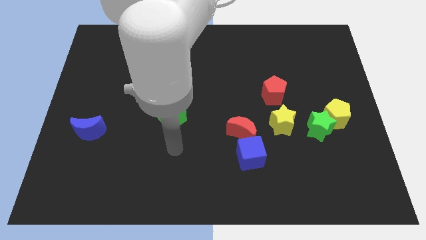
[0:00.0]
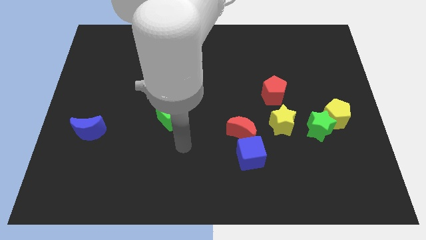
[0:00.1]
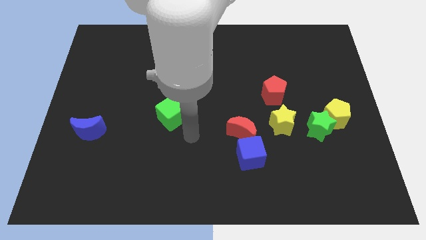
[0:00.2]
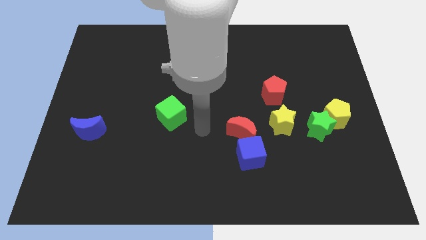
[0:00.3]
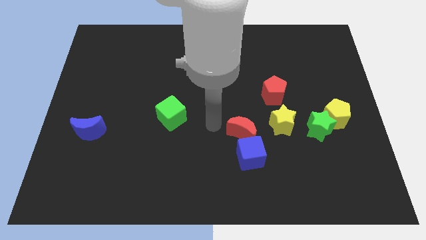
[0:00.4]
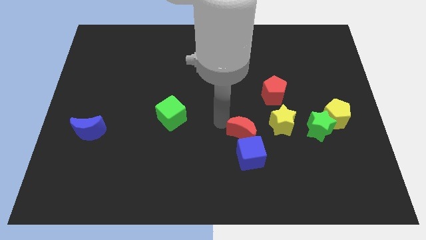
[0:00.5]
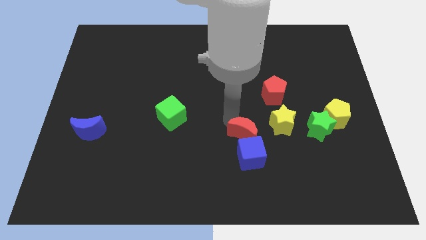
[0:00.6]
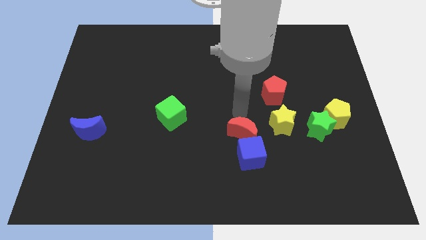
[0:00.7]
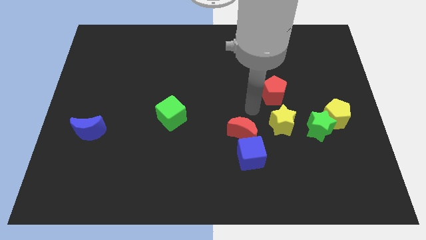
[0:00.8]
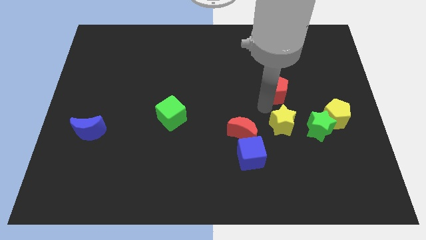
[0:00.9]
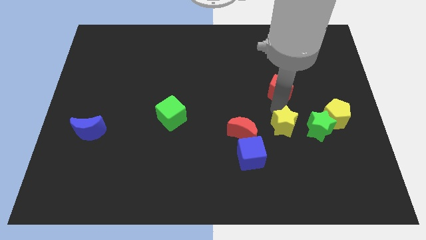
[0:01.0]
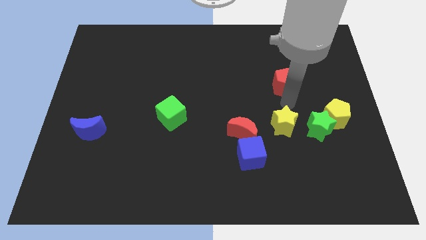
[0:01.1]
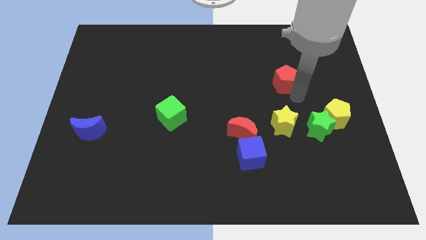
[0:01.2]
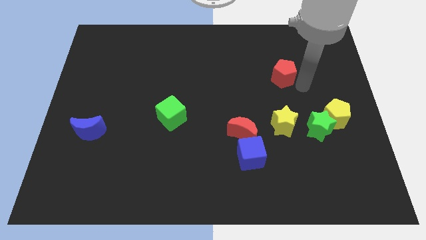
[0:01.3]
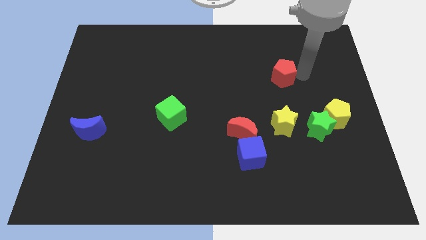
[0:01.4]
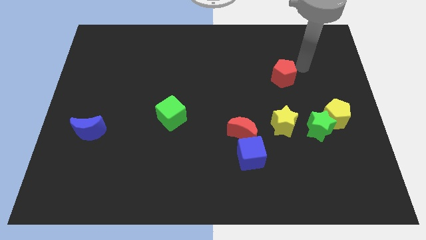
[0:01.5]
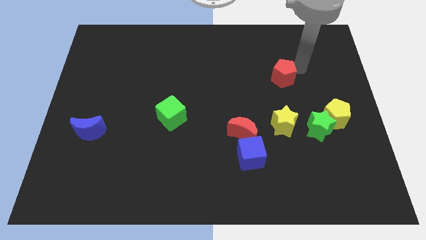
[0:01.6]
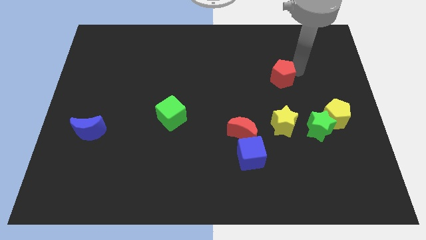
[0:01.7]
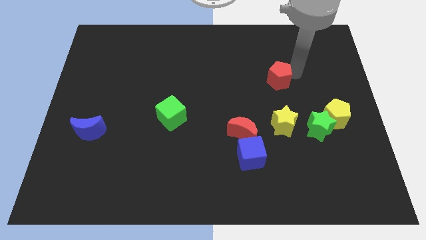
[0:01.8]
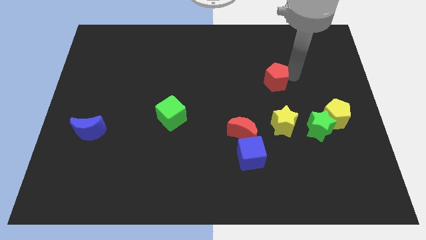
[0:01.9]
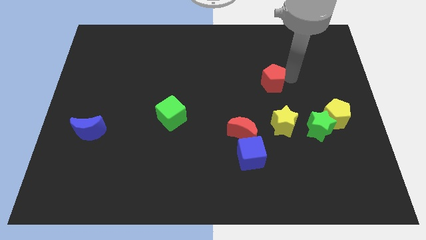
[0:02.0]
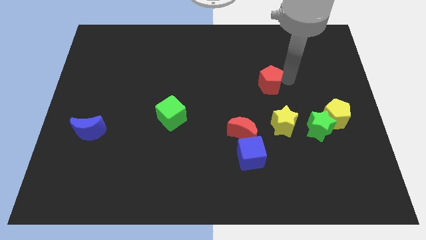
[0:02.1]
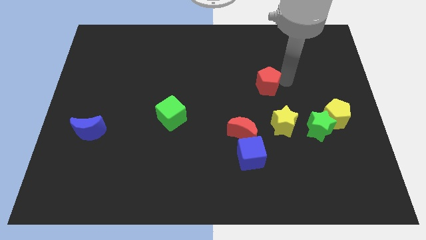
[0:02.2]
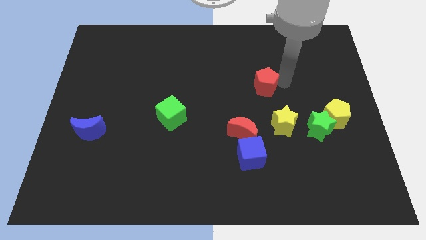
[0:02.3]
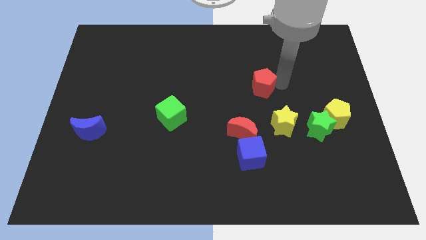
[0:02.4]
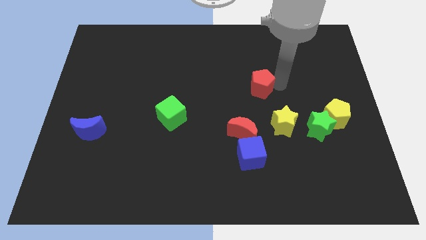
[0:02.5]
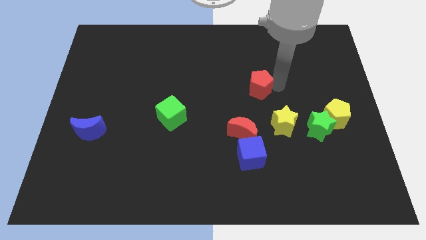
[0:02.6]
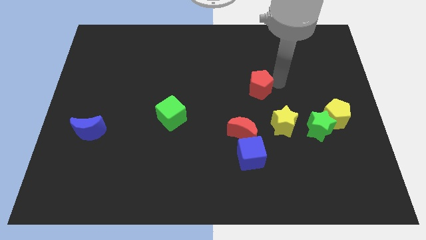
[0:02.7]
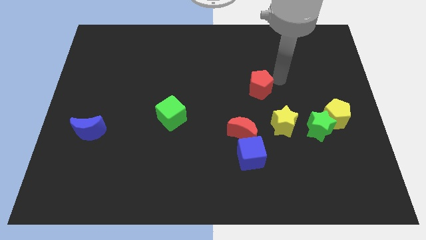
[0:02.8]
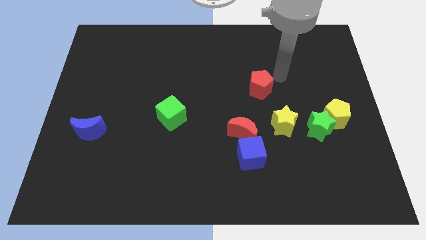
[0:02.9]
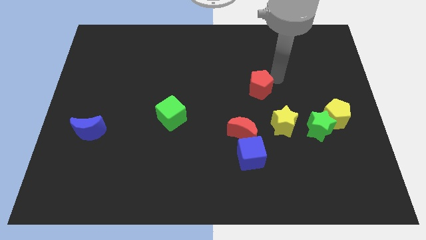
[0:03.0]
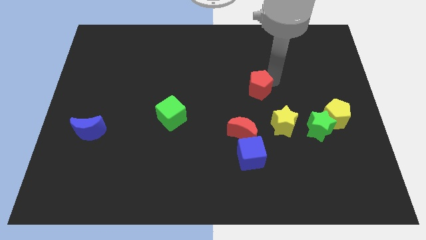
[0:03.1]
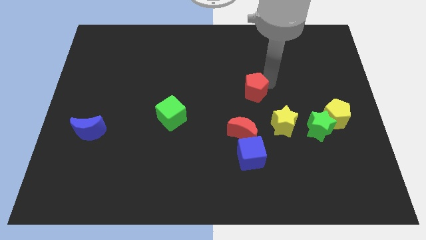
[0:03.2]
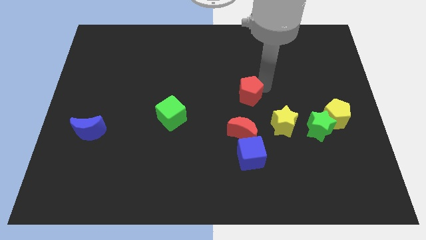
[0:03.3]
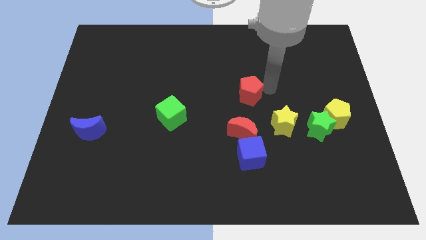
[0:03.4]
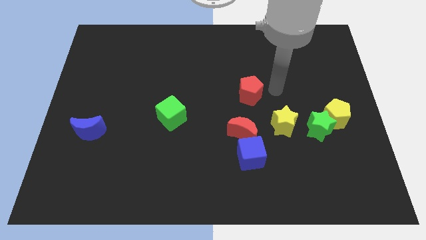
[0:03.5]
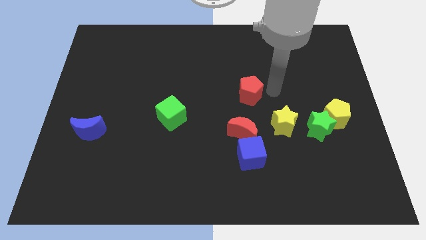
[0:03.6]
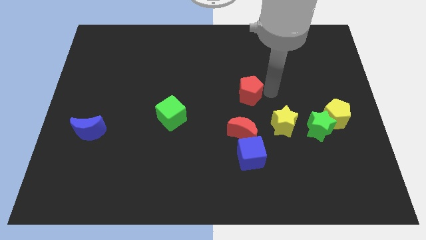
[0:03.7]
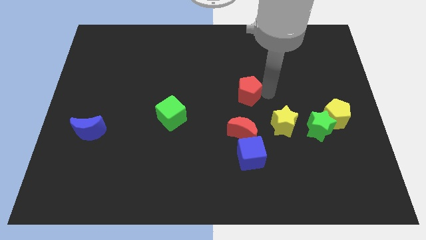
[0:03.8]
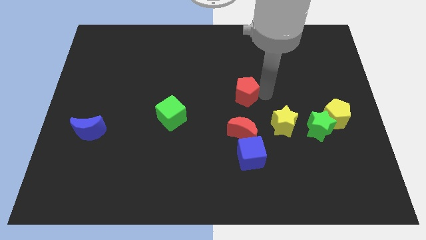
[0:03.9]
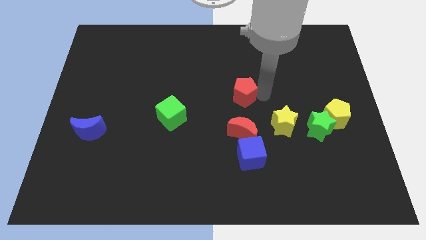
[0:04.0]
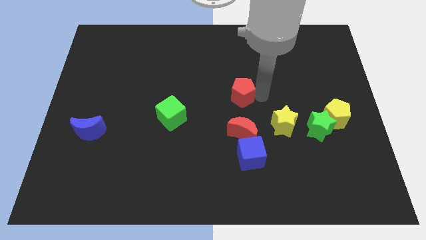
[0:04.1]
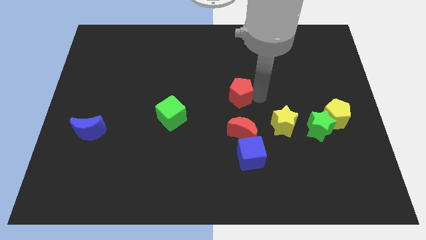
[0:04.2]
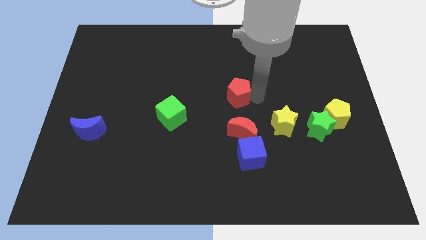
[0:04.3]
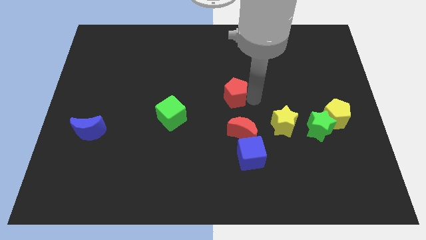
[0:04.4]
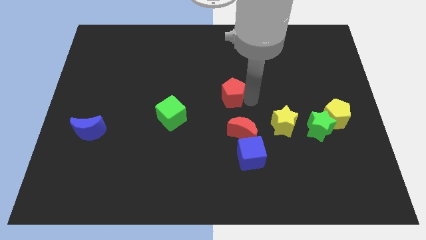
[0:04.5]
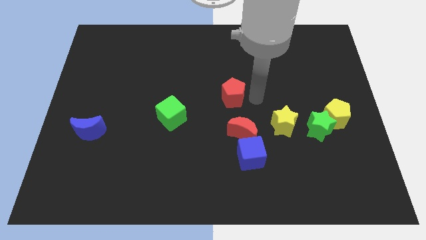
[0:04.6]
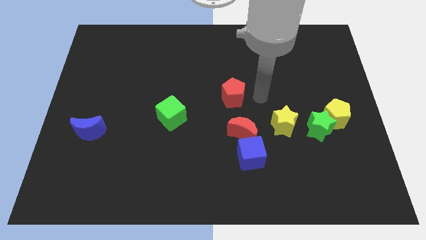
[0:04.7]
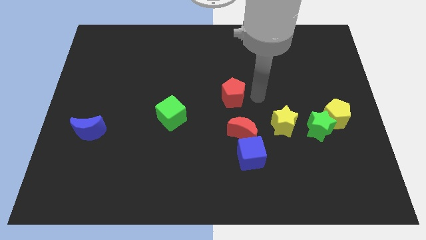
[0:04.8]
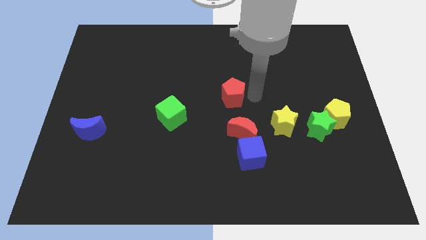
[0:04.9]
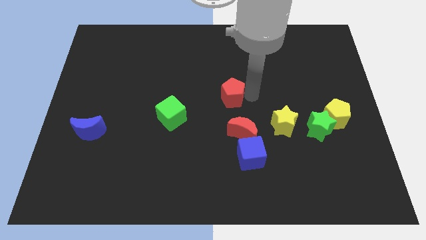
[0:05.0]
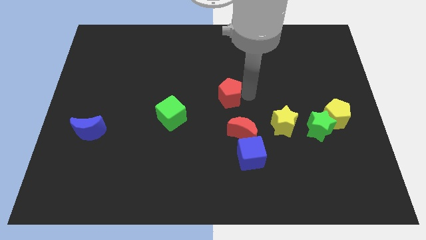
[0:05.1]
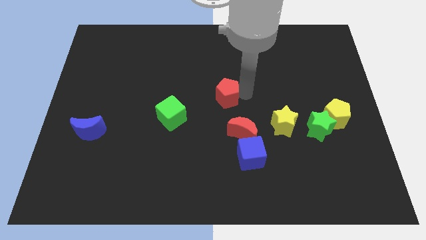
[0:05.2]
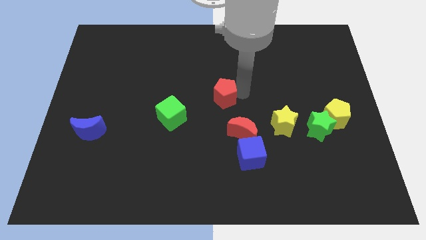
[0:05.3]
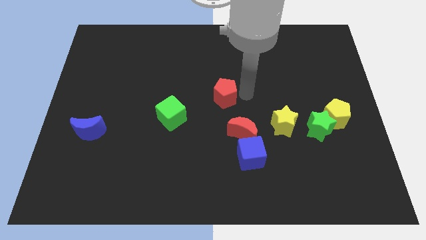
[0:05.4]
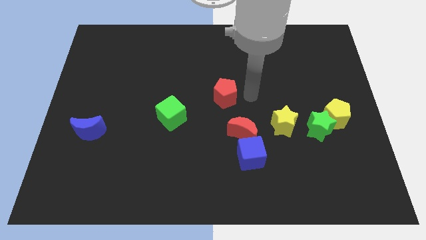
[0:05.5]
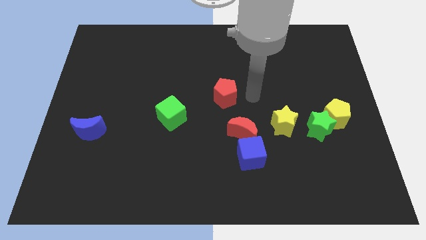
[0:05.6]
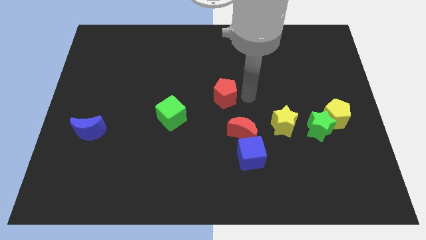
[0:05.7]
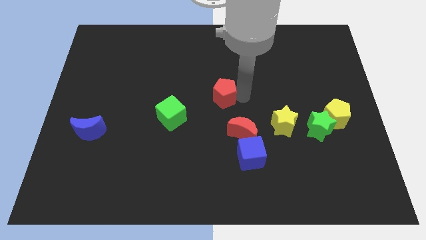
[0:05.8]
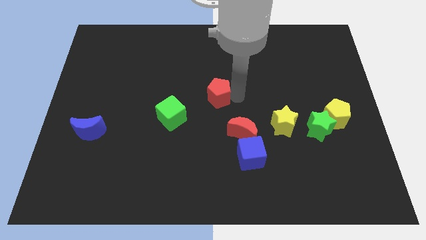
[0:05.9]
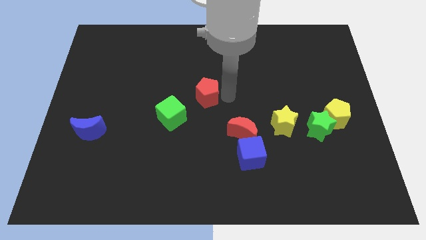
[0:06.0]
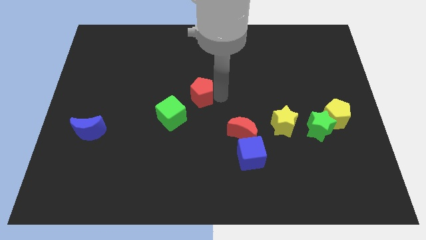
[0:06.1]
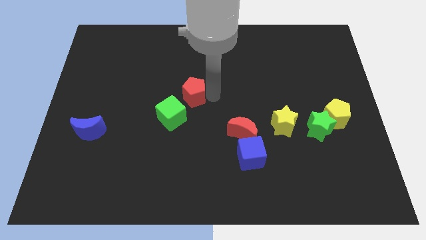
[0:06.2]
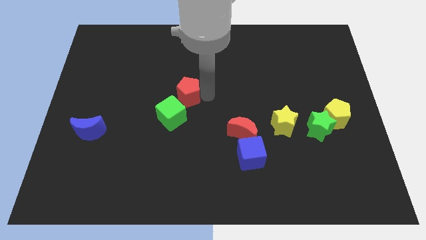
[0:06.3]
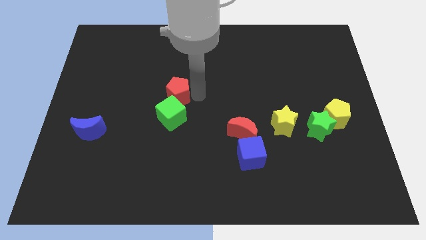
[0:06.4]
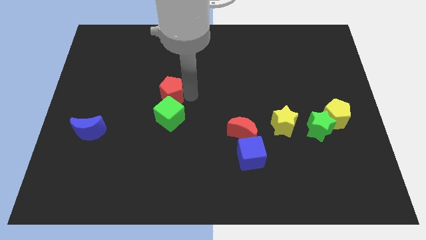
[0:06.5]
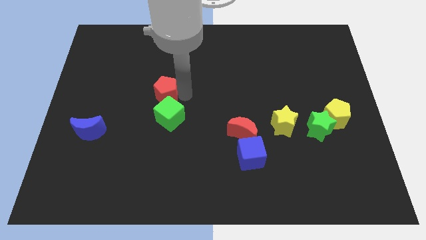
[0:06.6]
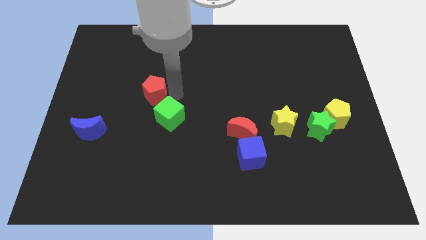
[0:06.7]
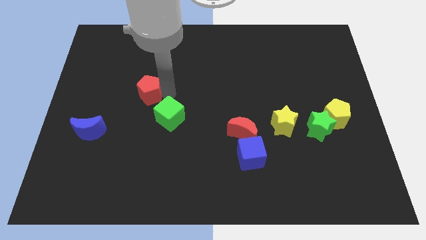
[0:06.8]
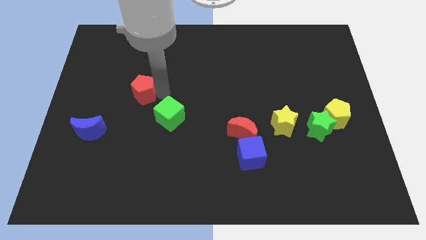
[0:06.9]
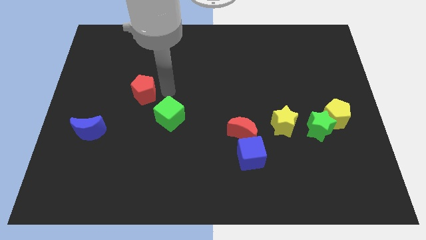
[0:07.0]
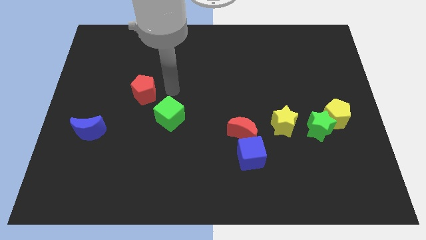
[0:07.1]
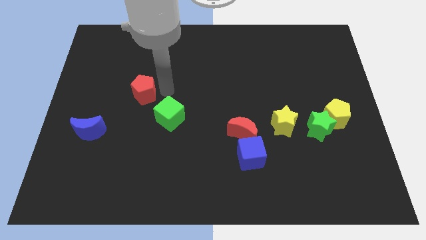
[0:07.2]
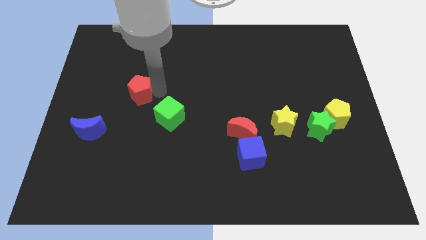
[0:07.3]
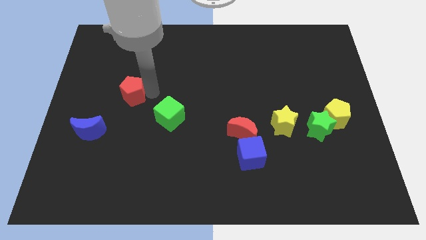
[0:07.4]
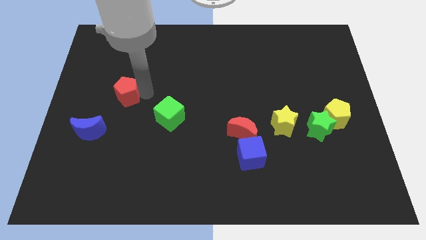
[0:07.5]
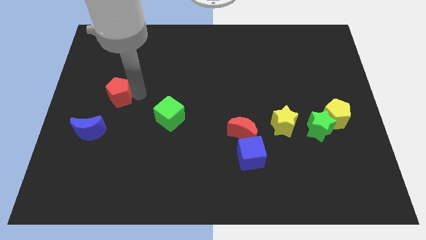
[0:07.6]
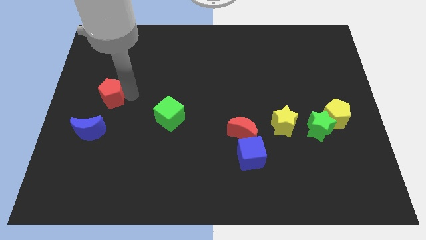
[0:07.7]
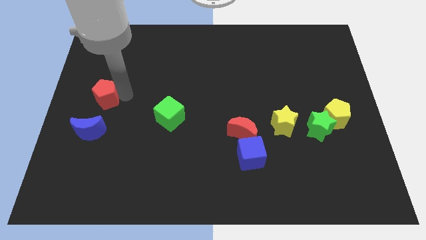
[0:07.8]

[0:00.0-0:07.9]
move the red pentagon to the center left
